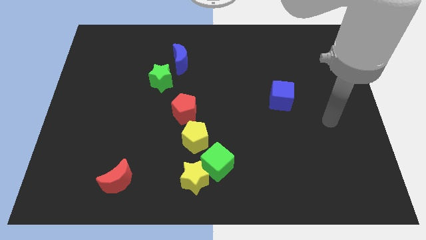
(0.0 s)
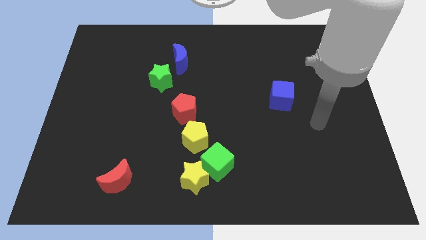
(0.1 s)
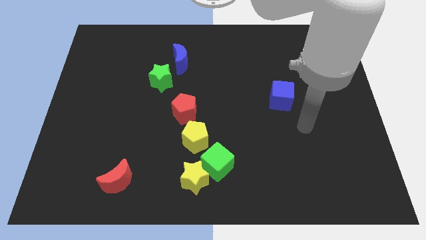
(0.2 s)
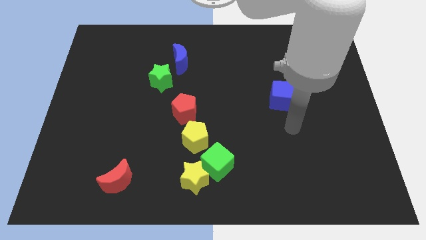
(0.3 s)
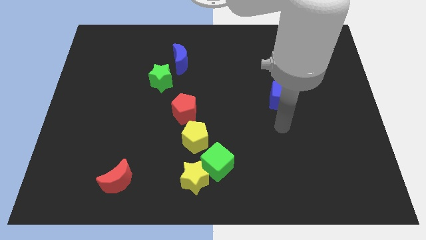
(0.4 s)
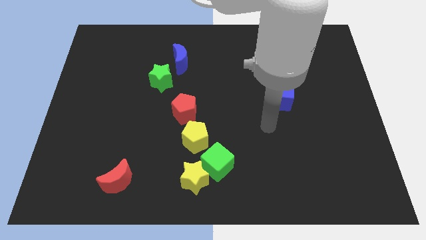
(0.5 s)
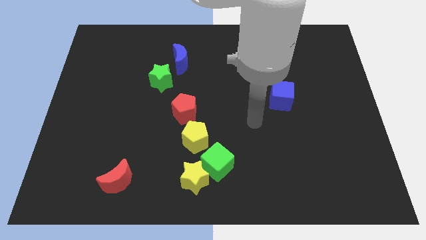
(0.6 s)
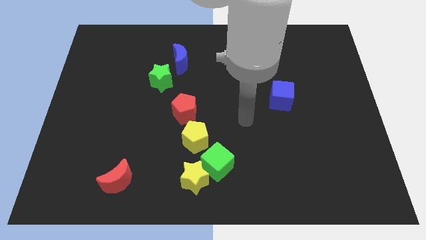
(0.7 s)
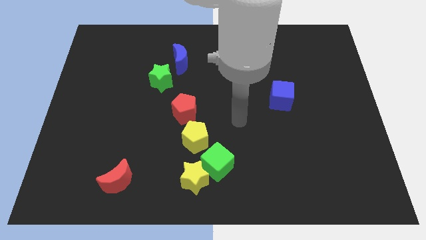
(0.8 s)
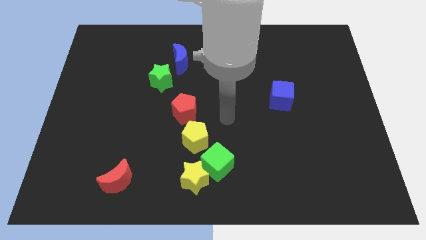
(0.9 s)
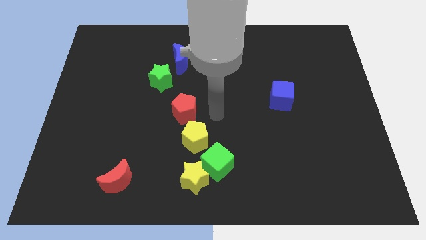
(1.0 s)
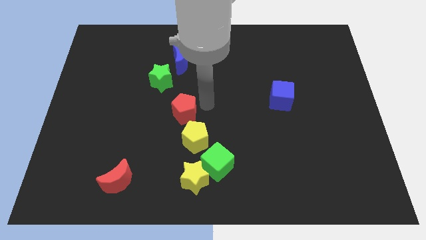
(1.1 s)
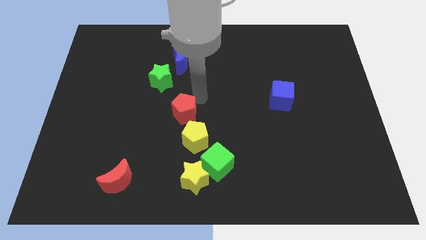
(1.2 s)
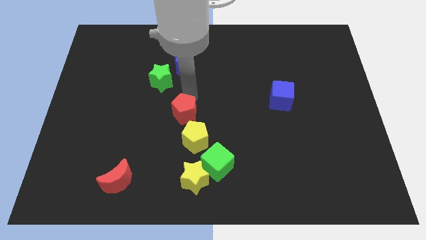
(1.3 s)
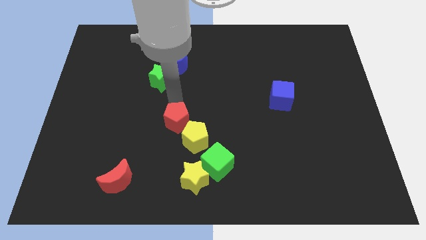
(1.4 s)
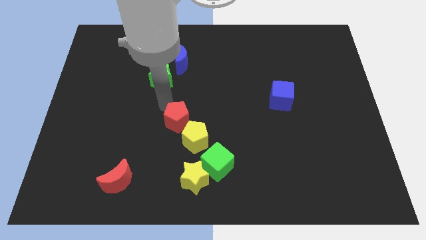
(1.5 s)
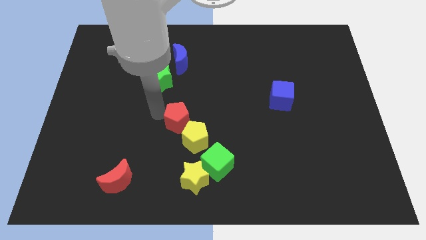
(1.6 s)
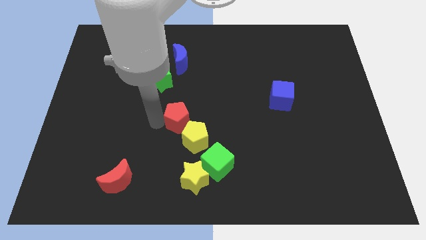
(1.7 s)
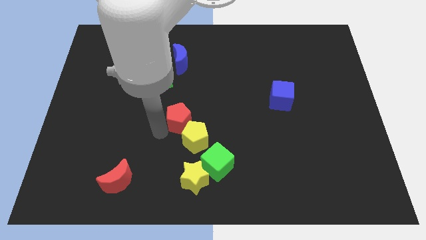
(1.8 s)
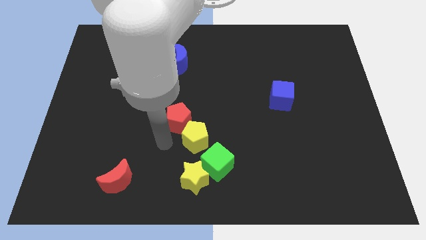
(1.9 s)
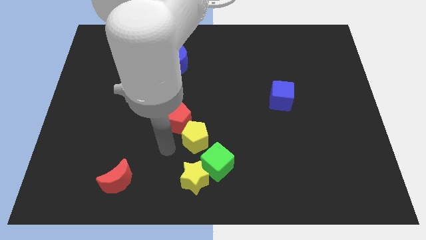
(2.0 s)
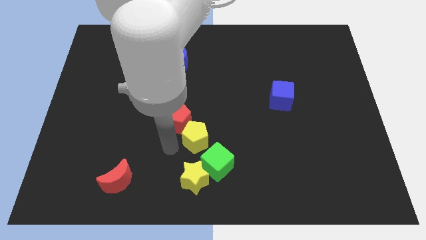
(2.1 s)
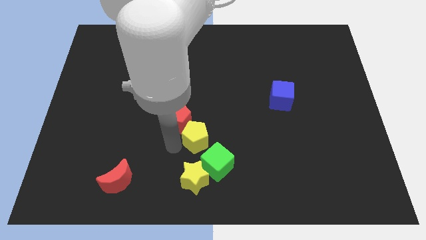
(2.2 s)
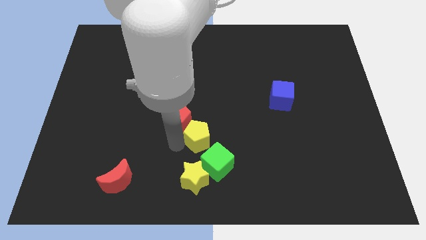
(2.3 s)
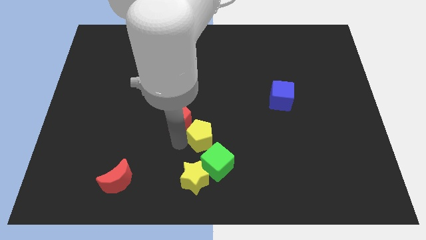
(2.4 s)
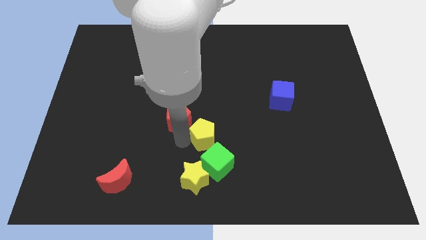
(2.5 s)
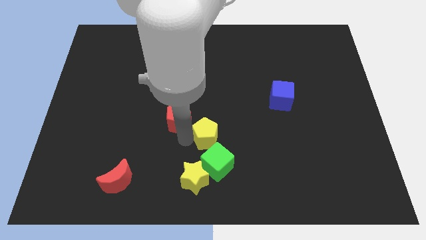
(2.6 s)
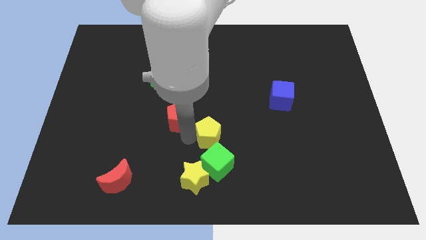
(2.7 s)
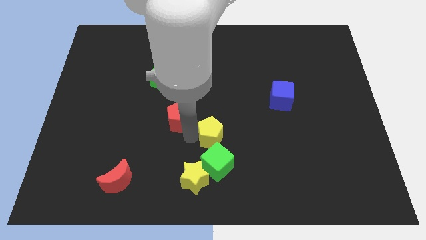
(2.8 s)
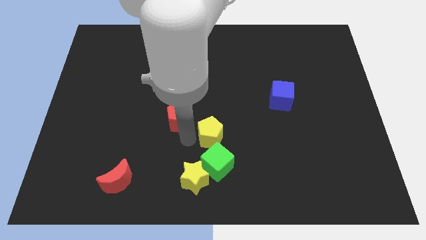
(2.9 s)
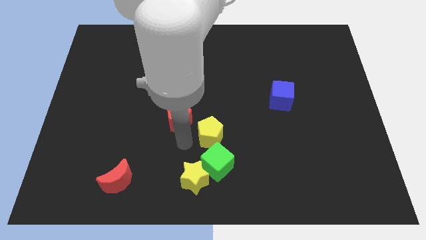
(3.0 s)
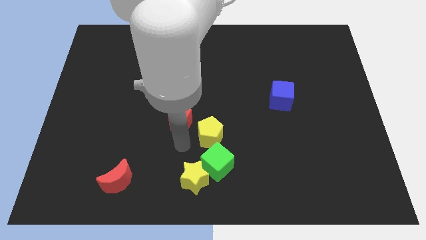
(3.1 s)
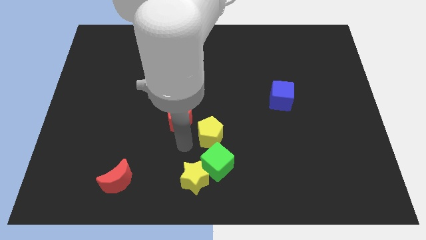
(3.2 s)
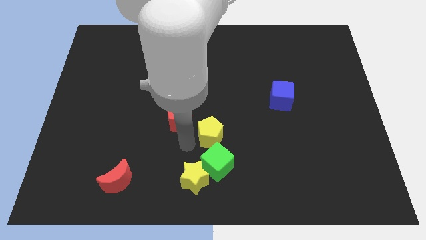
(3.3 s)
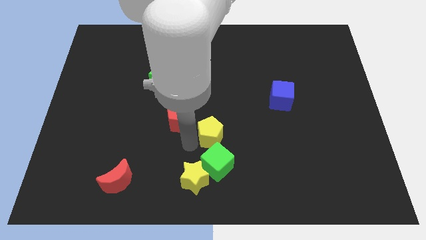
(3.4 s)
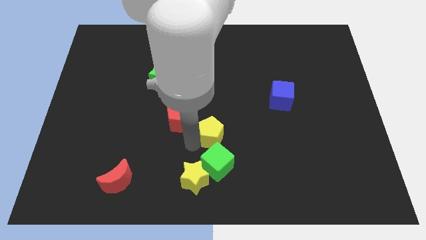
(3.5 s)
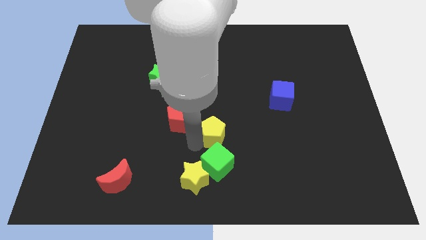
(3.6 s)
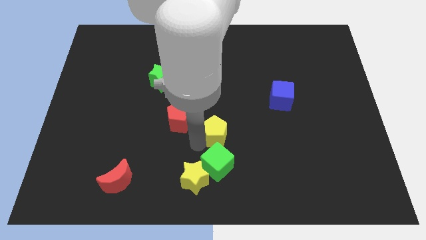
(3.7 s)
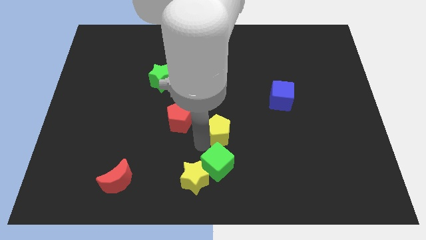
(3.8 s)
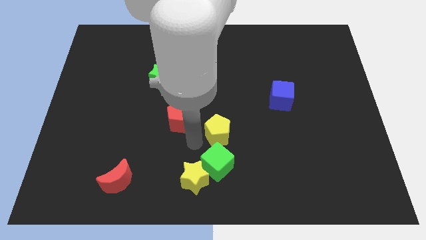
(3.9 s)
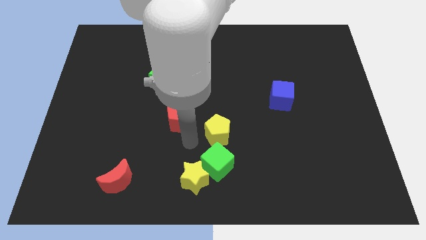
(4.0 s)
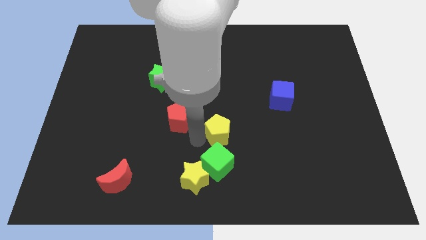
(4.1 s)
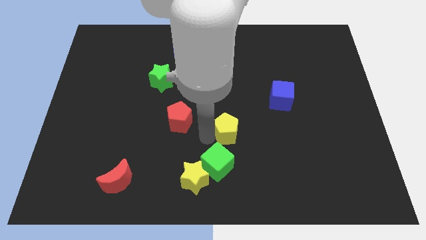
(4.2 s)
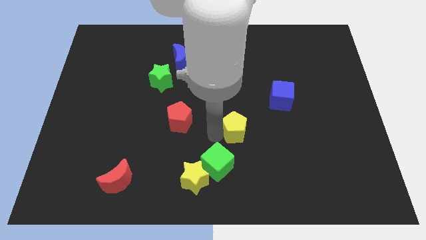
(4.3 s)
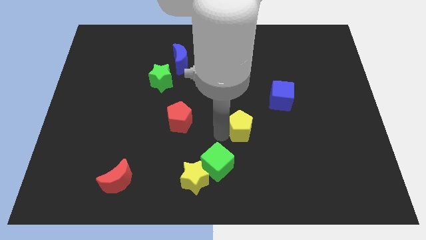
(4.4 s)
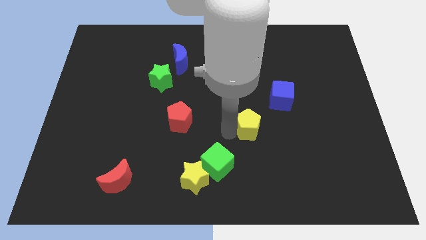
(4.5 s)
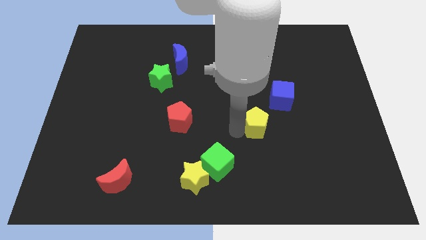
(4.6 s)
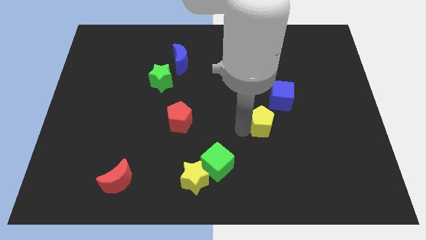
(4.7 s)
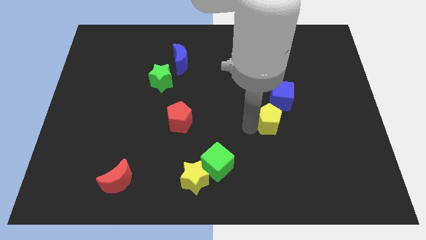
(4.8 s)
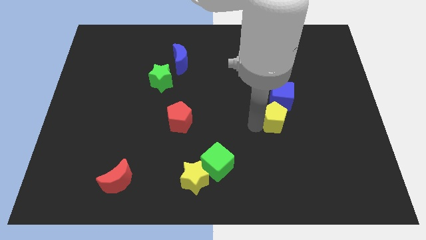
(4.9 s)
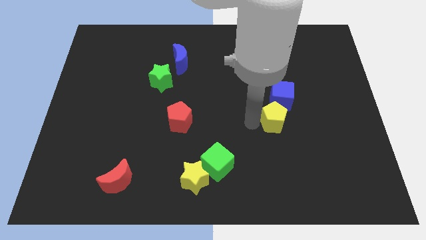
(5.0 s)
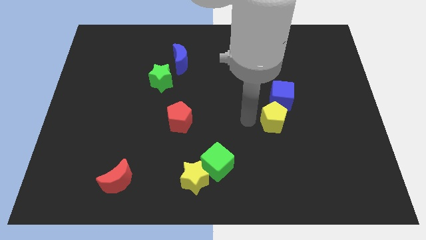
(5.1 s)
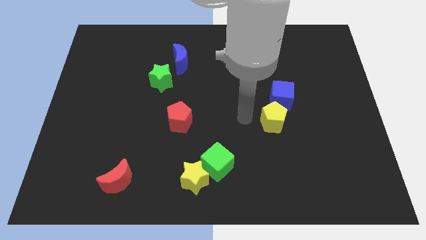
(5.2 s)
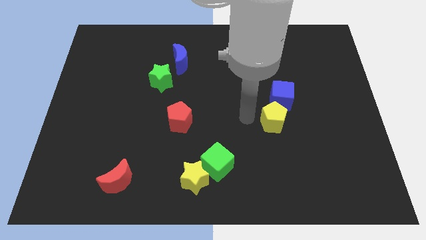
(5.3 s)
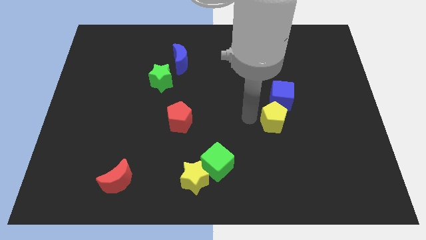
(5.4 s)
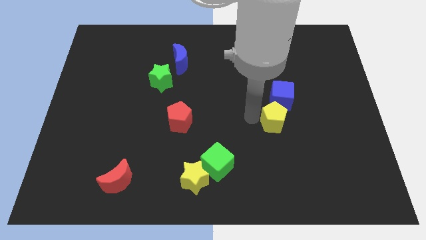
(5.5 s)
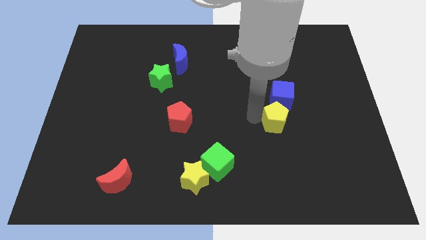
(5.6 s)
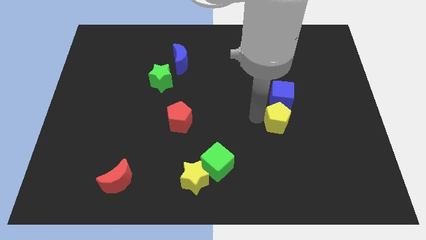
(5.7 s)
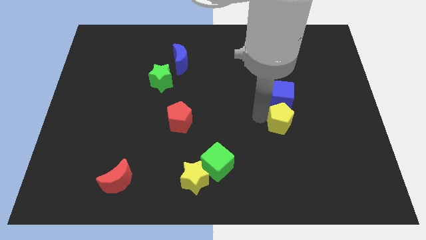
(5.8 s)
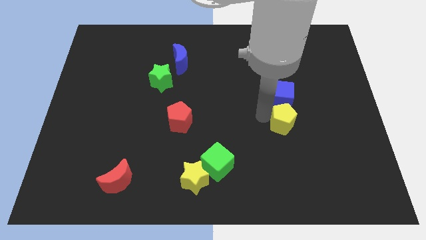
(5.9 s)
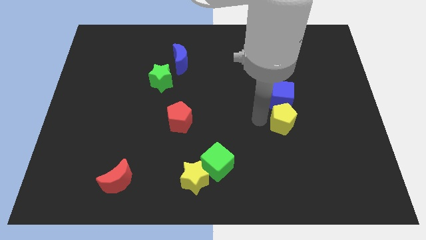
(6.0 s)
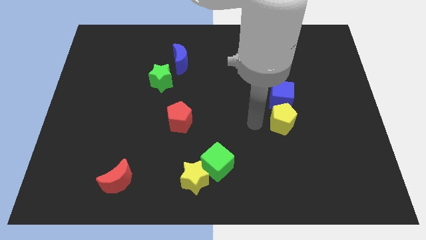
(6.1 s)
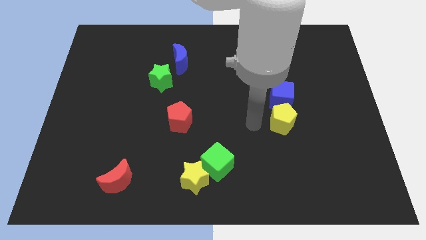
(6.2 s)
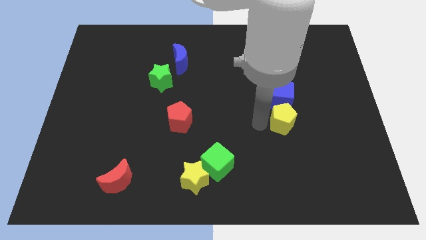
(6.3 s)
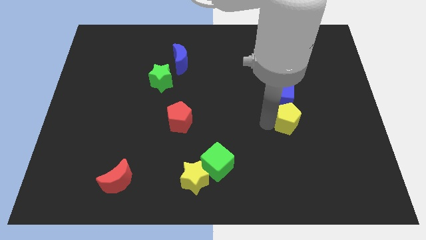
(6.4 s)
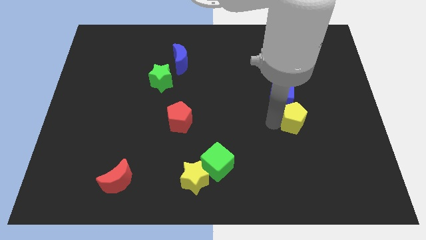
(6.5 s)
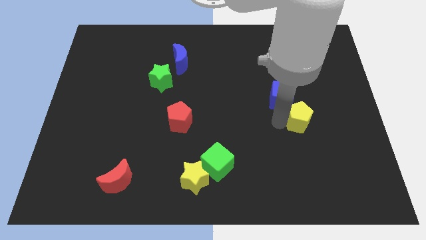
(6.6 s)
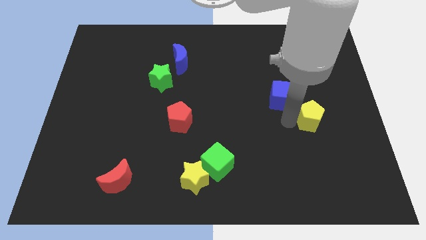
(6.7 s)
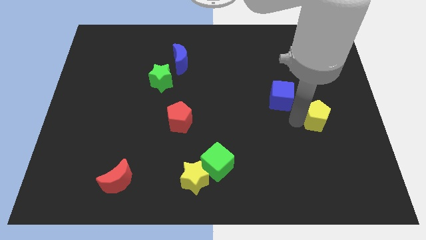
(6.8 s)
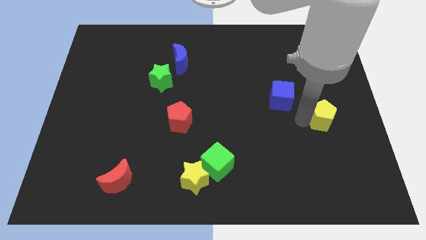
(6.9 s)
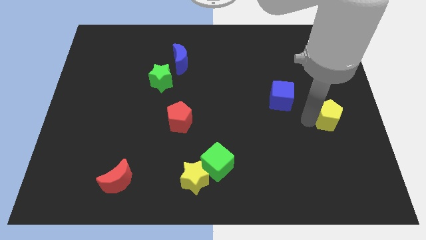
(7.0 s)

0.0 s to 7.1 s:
put the yellow pentagon to the right side
